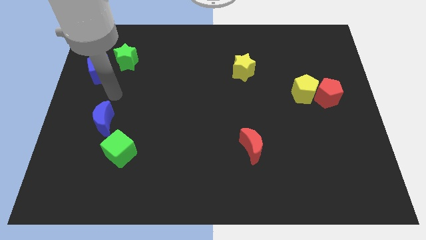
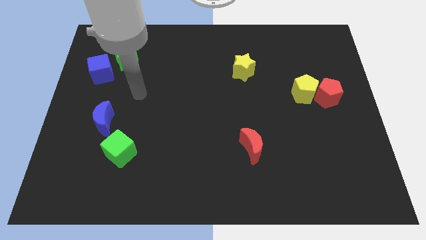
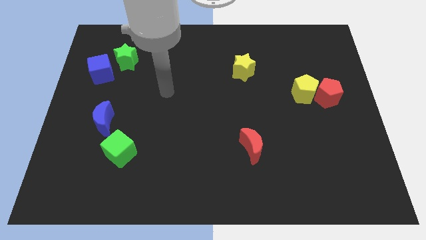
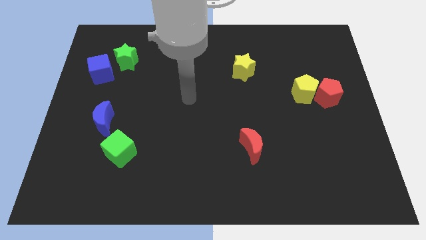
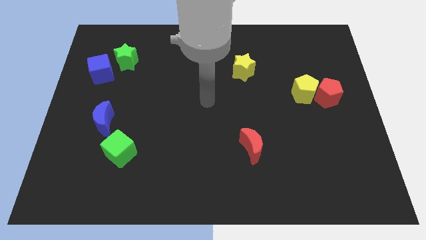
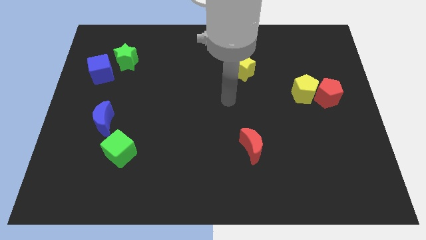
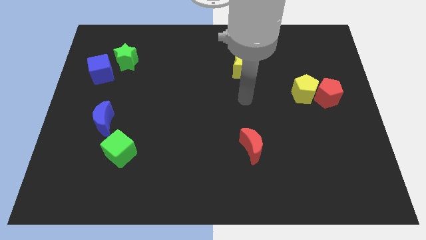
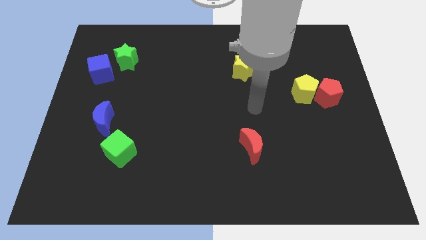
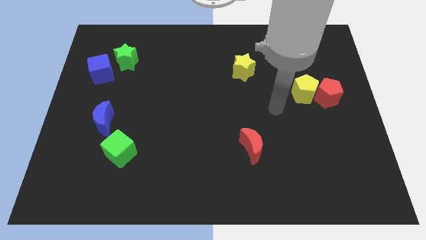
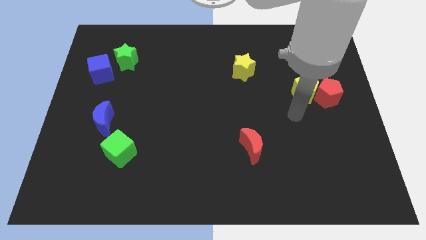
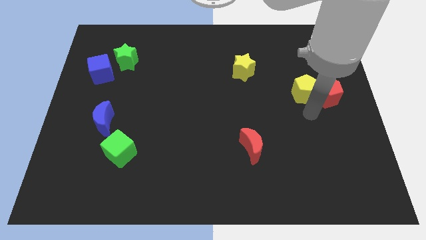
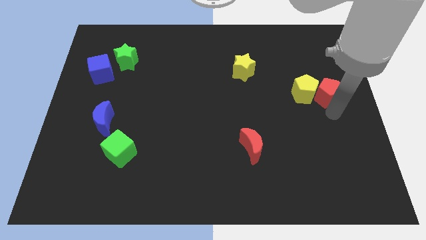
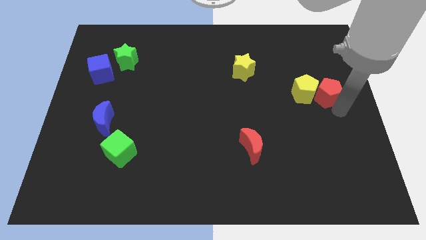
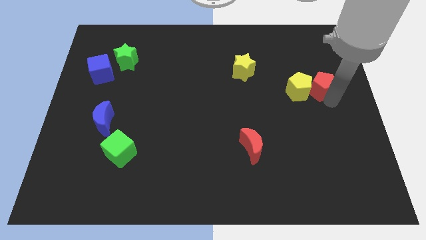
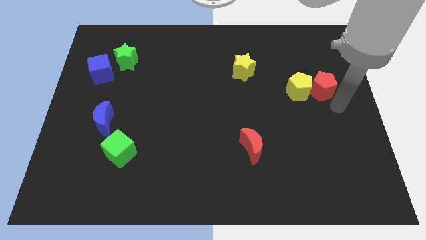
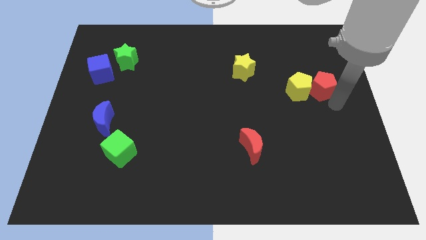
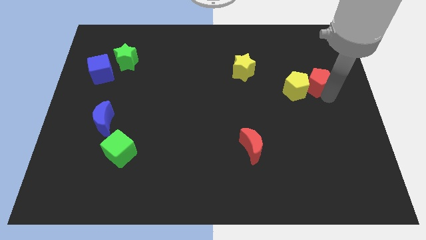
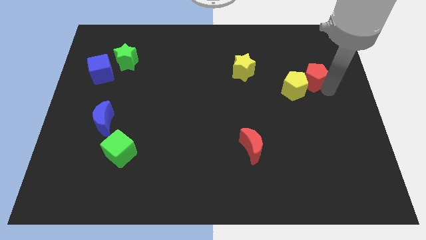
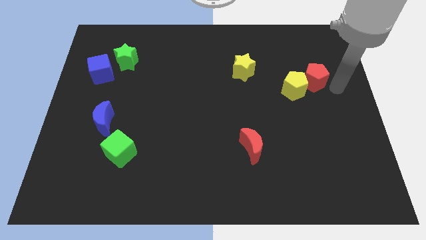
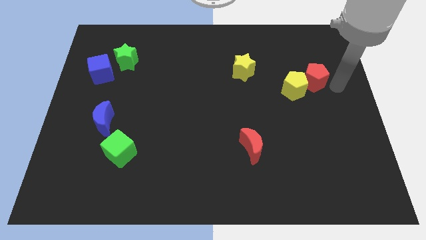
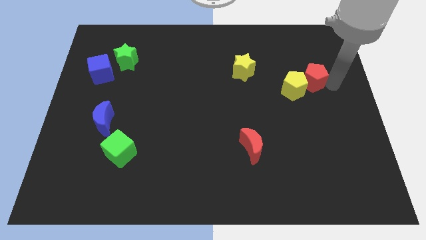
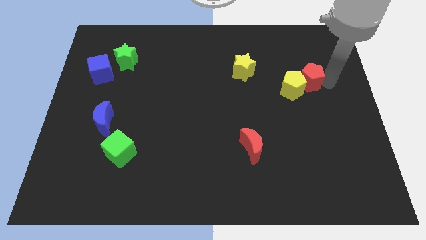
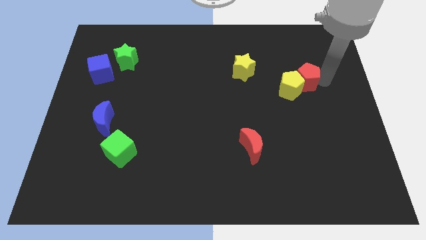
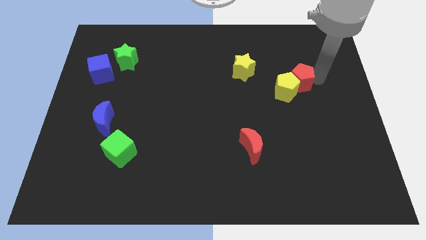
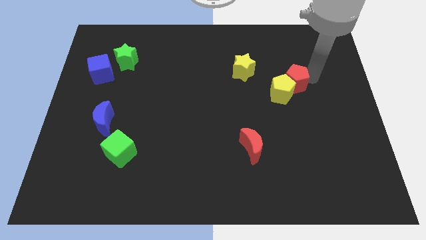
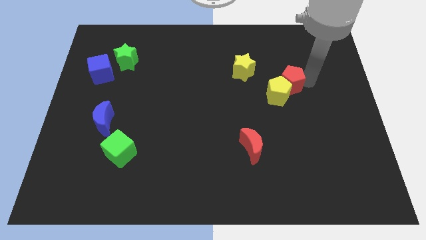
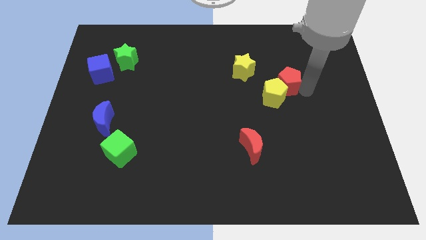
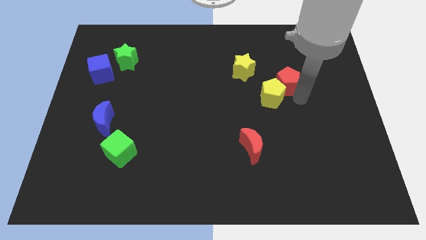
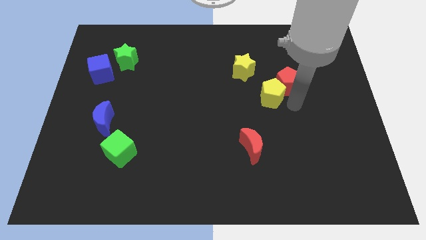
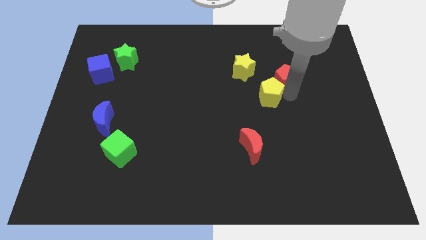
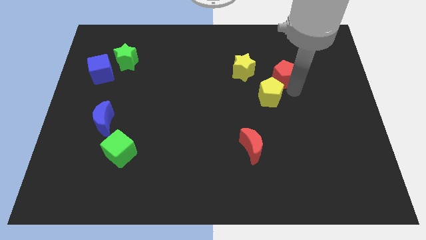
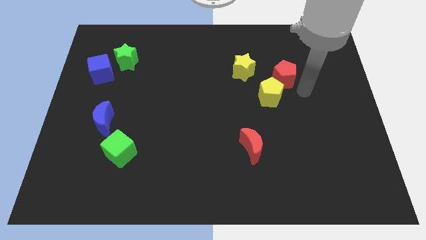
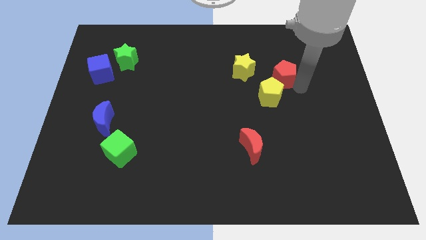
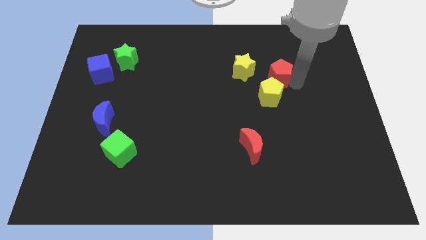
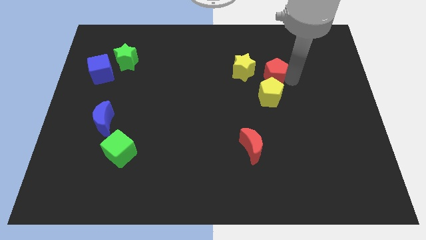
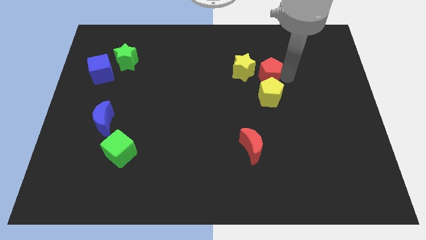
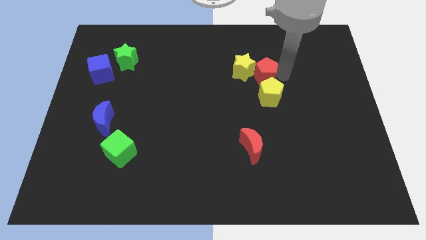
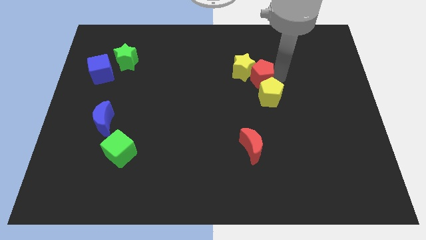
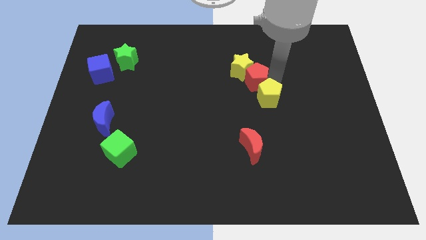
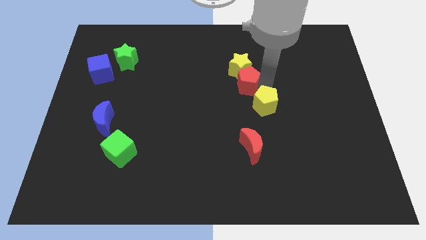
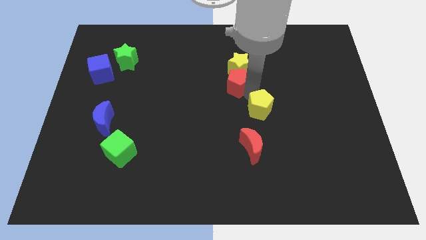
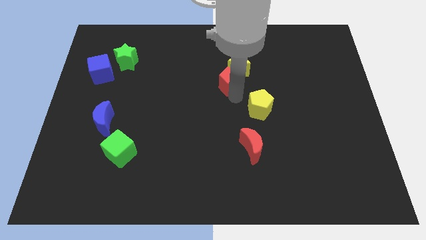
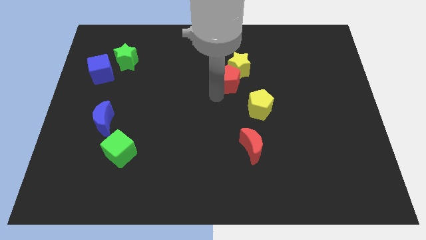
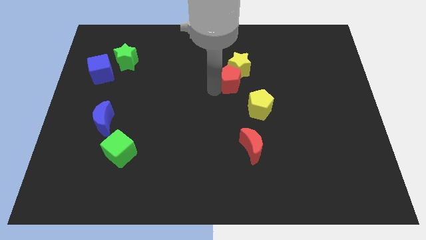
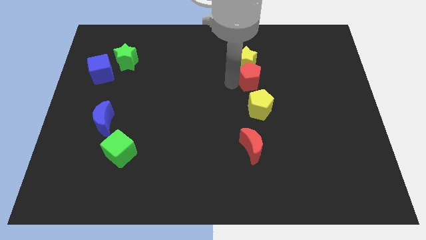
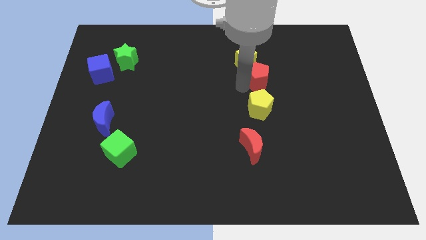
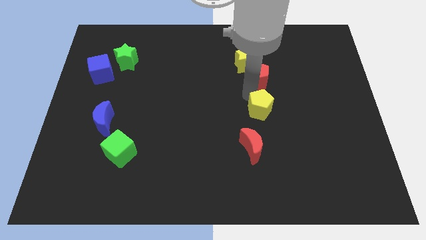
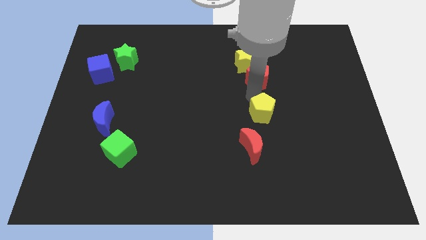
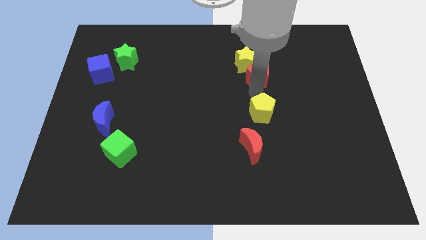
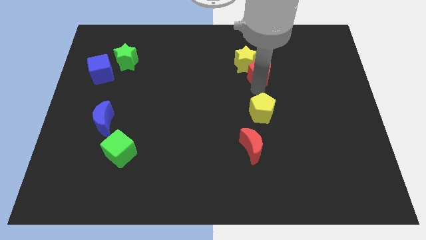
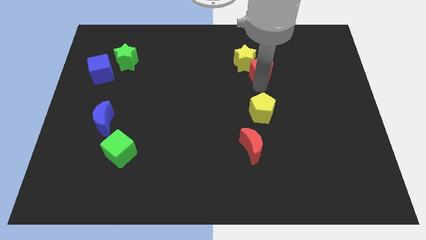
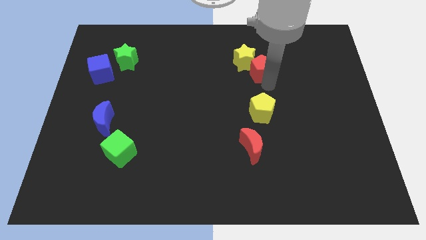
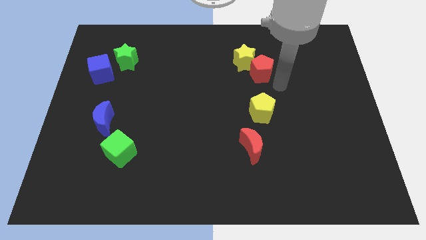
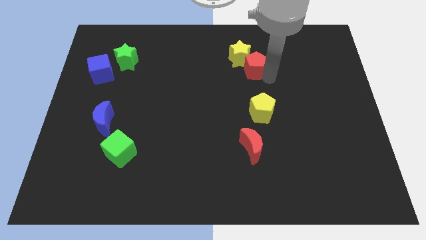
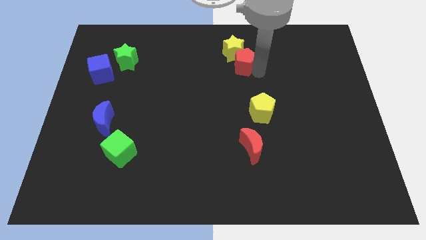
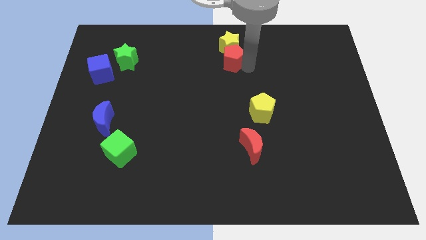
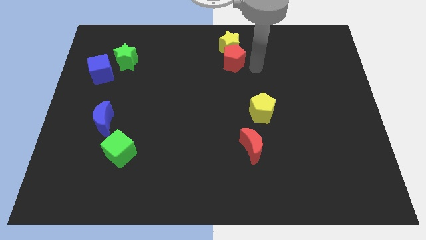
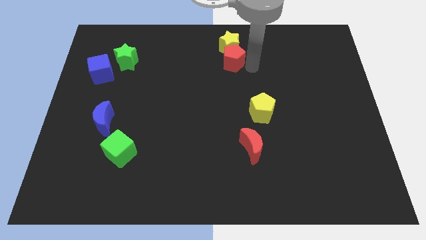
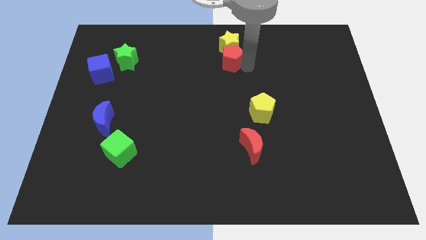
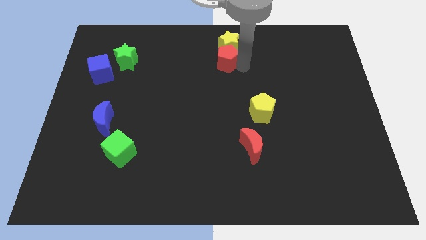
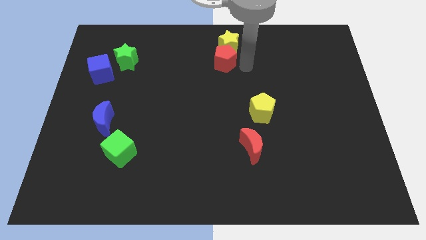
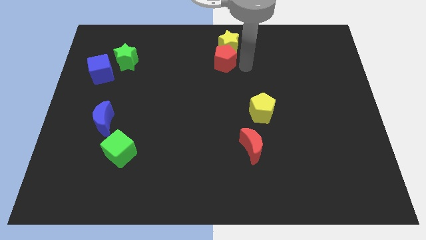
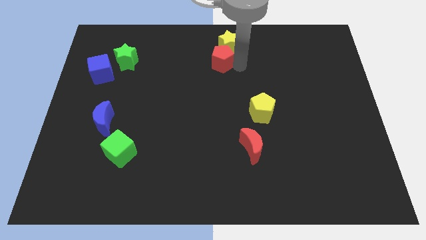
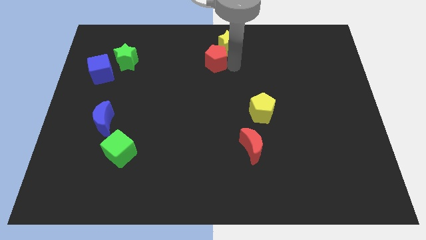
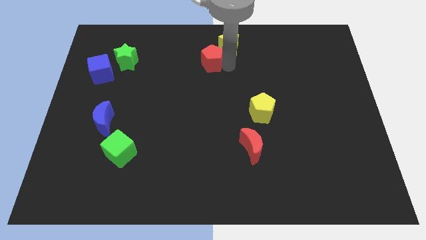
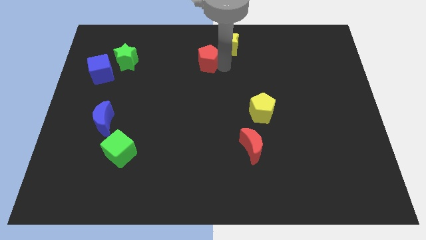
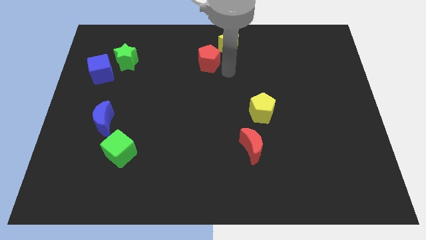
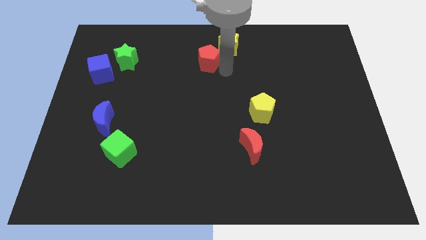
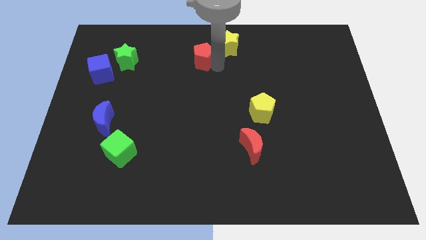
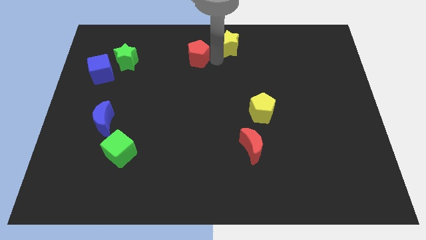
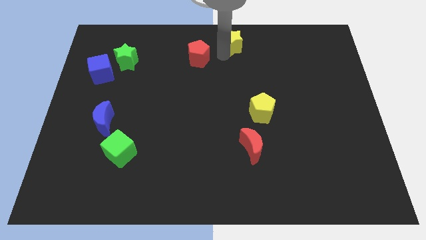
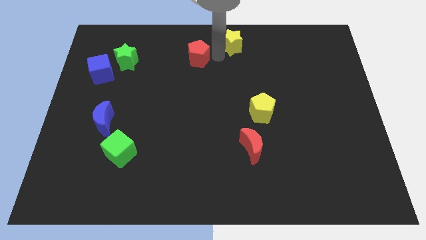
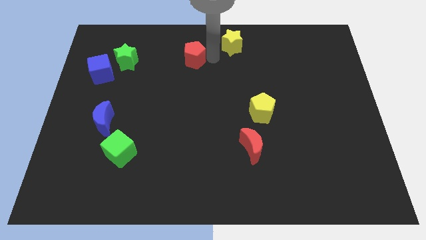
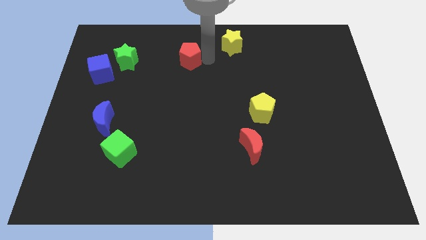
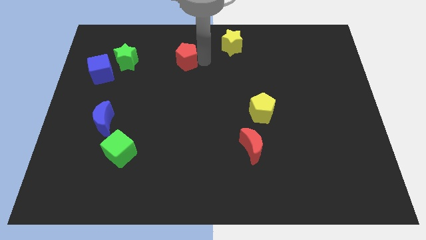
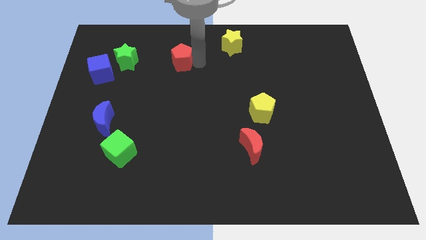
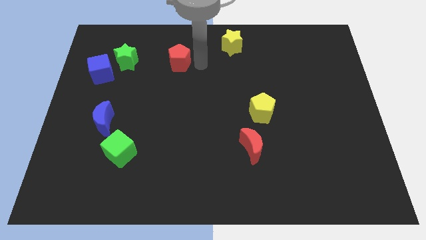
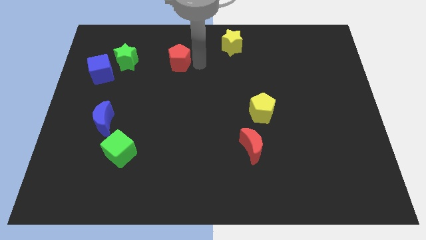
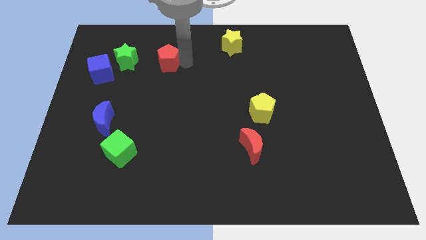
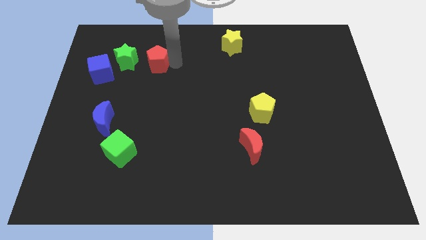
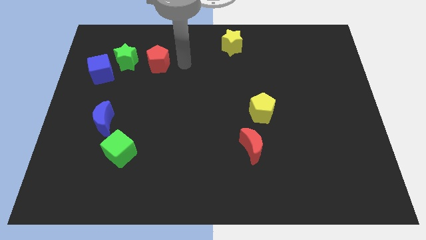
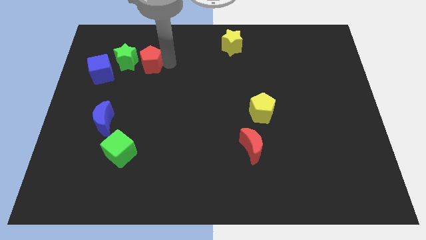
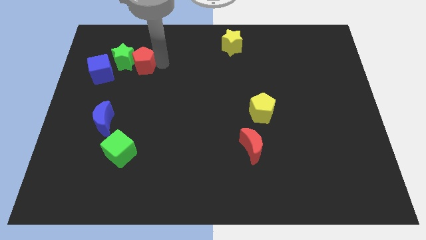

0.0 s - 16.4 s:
put the red pentagon to the green star
